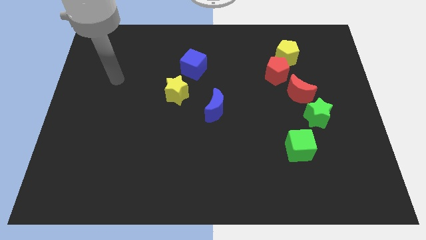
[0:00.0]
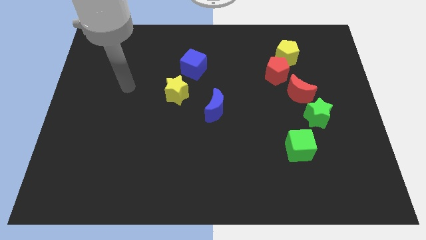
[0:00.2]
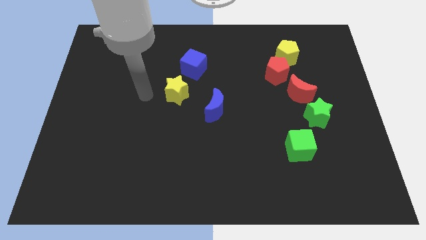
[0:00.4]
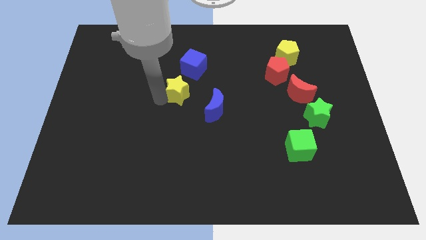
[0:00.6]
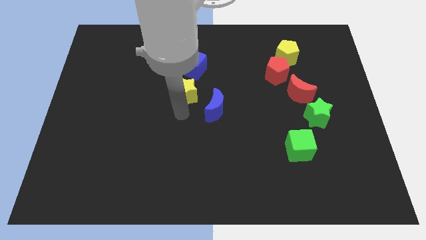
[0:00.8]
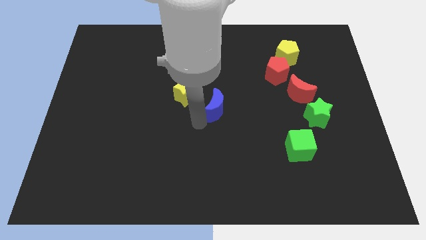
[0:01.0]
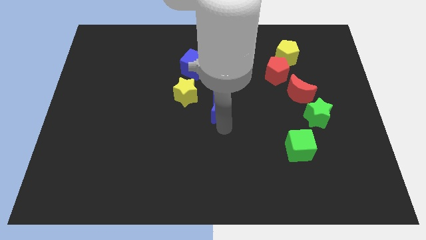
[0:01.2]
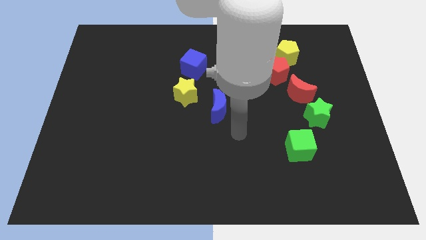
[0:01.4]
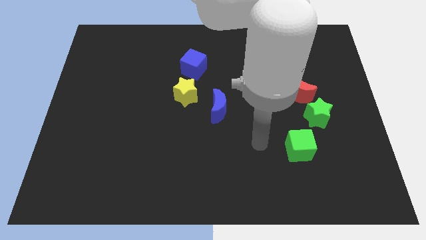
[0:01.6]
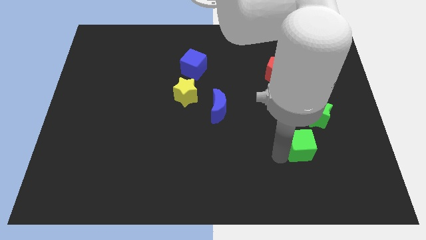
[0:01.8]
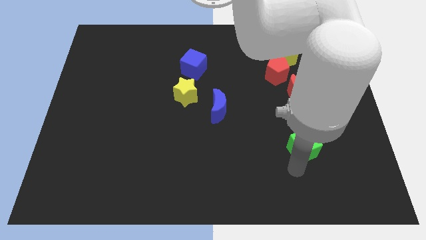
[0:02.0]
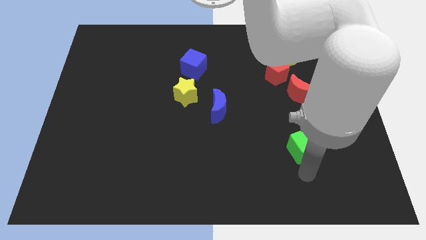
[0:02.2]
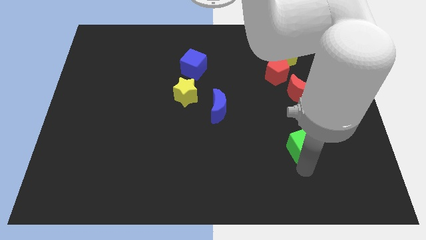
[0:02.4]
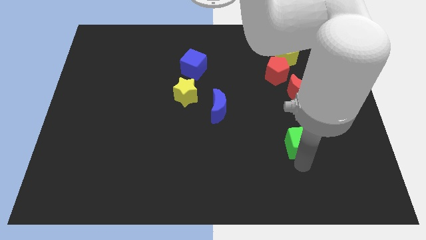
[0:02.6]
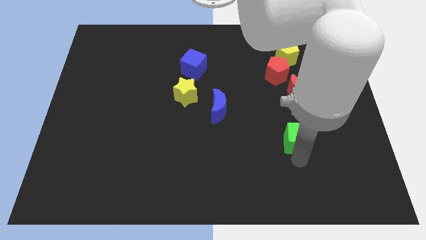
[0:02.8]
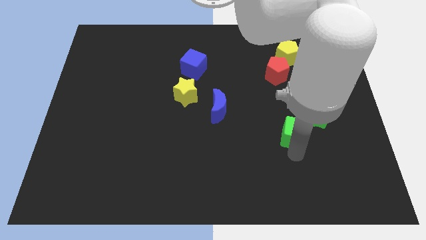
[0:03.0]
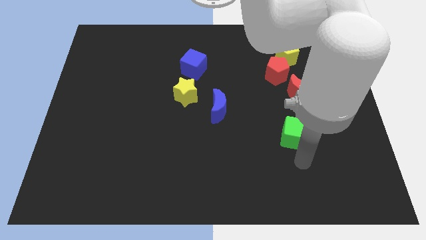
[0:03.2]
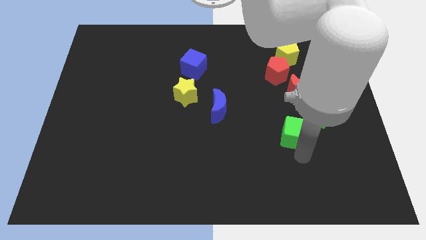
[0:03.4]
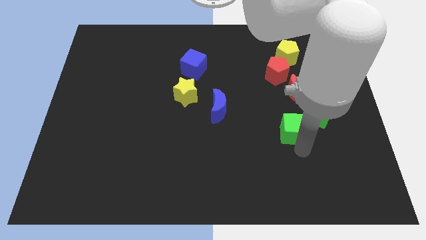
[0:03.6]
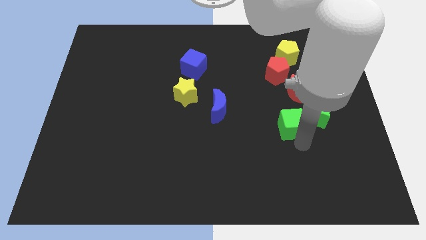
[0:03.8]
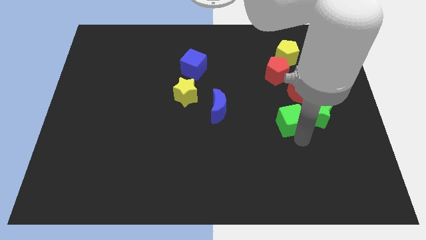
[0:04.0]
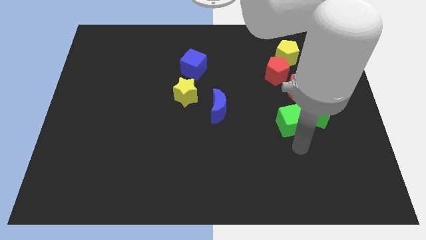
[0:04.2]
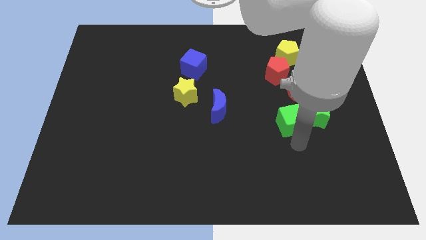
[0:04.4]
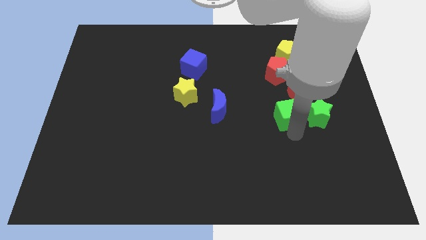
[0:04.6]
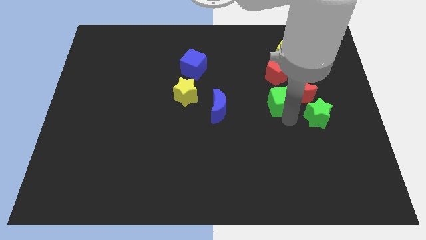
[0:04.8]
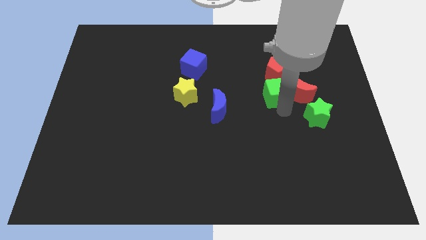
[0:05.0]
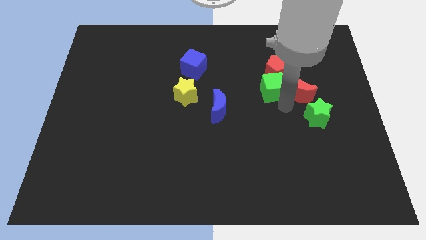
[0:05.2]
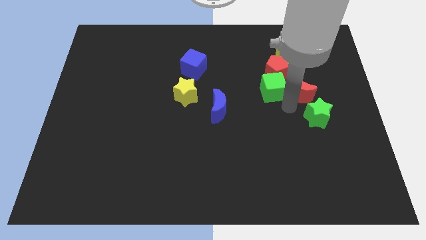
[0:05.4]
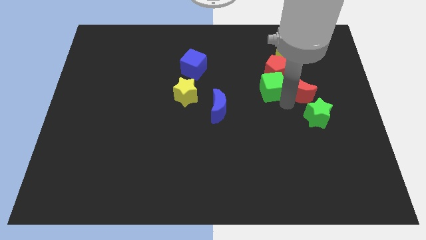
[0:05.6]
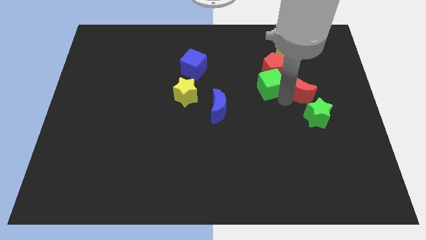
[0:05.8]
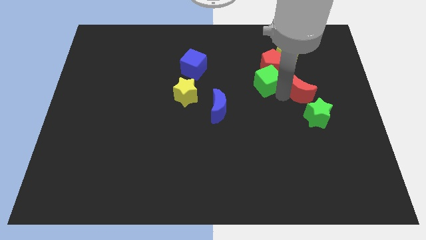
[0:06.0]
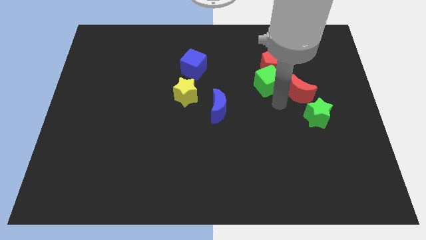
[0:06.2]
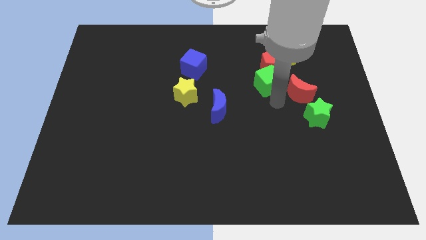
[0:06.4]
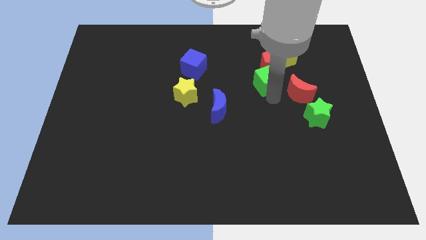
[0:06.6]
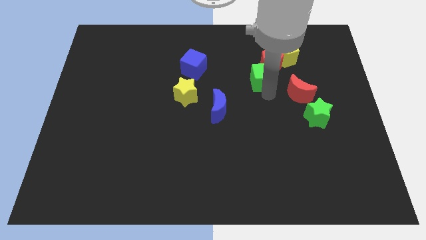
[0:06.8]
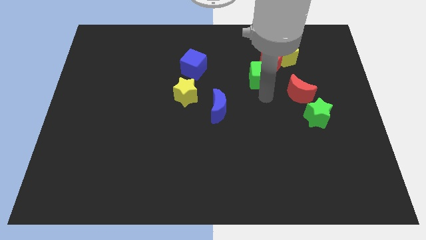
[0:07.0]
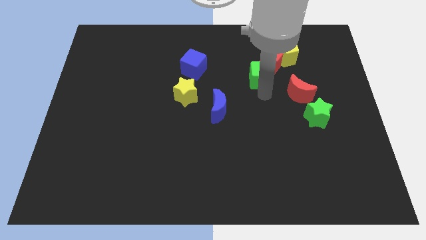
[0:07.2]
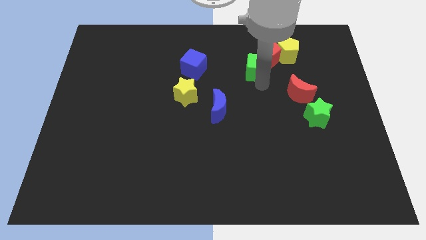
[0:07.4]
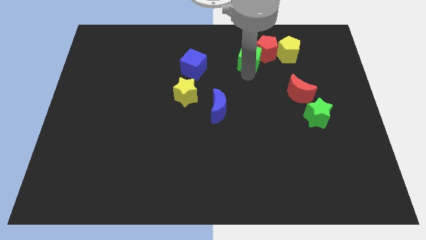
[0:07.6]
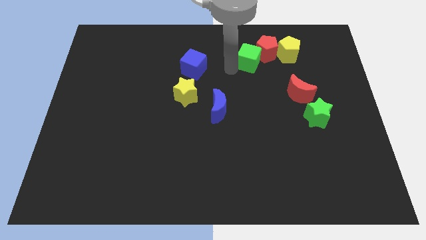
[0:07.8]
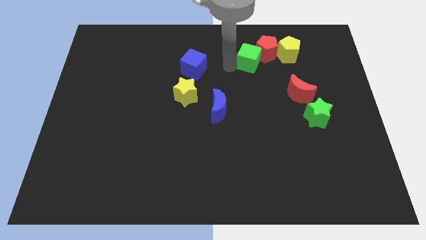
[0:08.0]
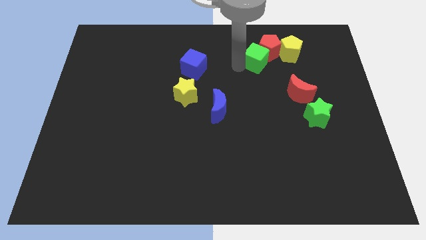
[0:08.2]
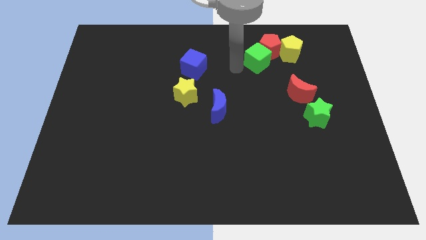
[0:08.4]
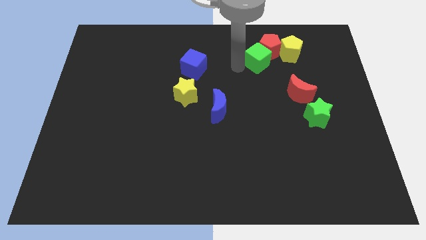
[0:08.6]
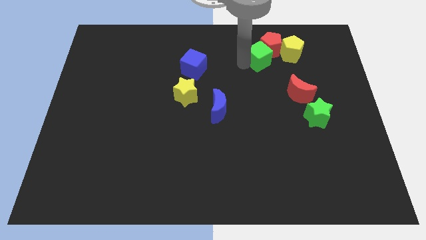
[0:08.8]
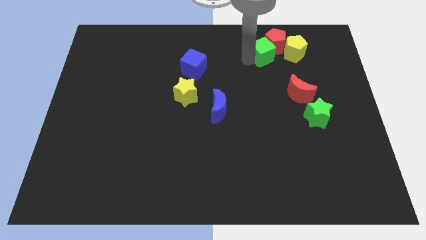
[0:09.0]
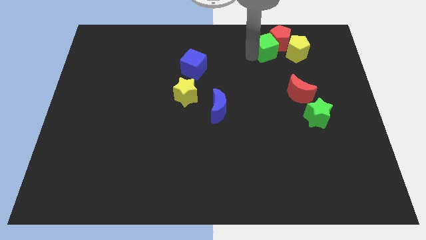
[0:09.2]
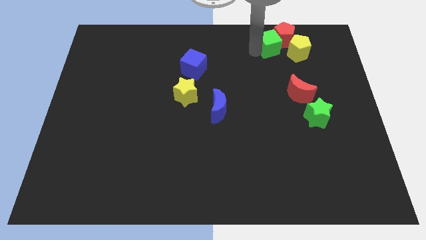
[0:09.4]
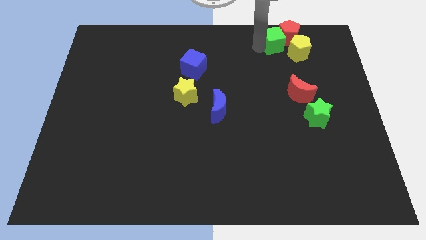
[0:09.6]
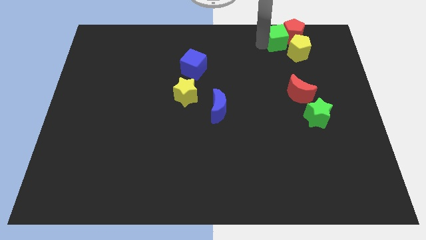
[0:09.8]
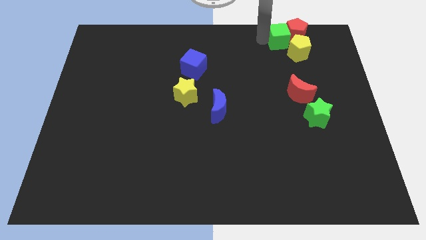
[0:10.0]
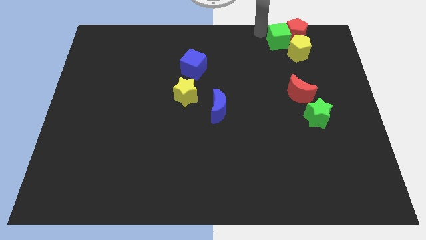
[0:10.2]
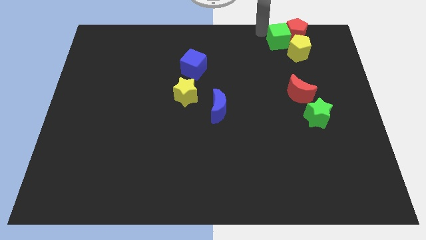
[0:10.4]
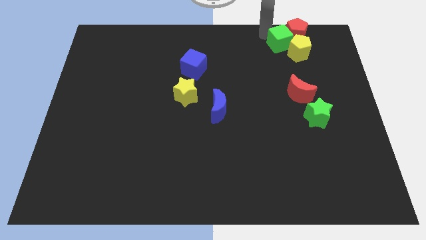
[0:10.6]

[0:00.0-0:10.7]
put the green cube to the yellow pentagon
